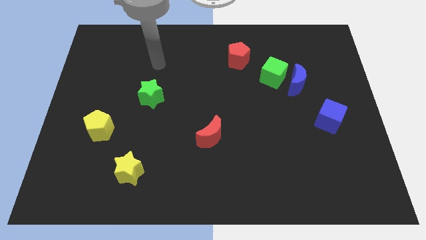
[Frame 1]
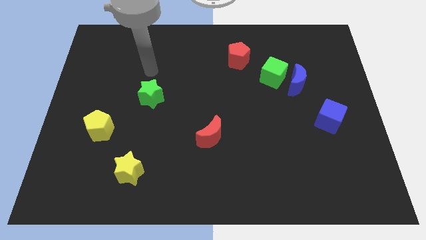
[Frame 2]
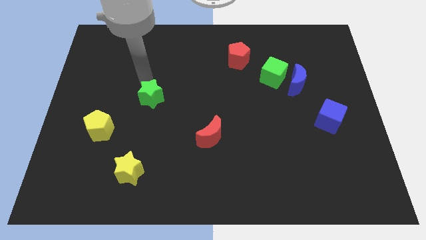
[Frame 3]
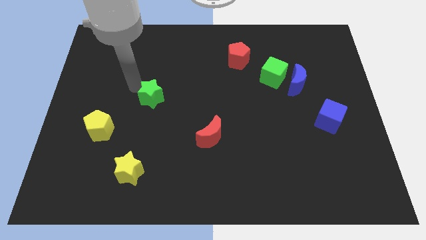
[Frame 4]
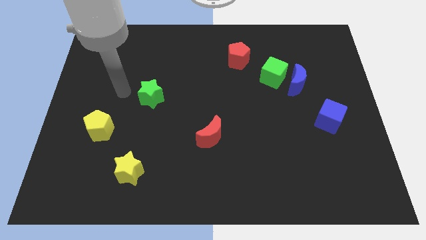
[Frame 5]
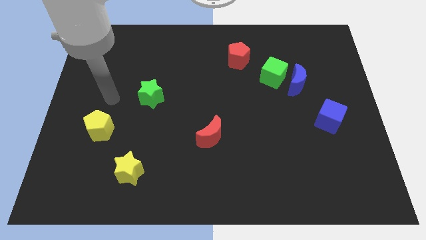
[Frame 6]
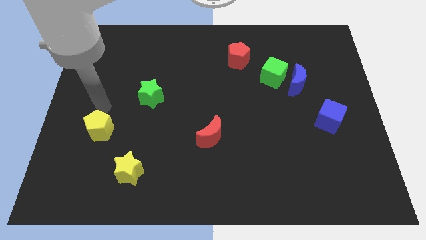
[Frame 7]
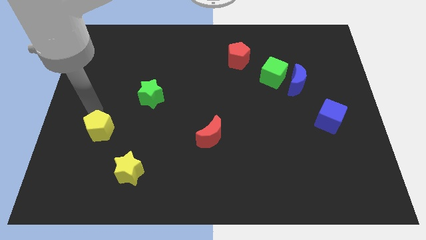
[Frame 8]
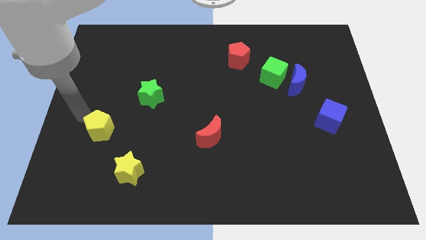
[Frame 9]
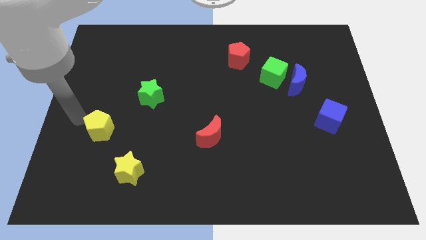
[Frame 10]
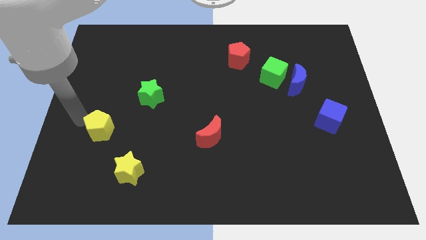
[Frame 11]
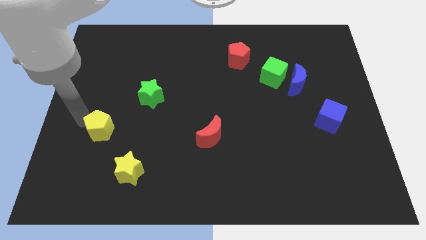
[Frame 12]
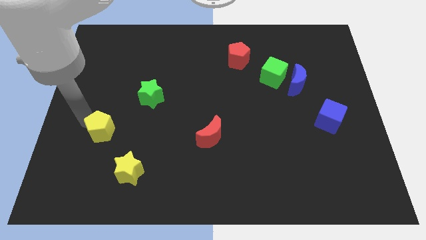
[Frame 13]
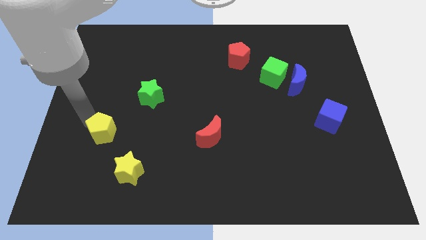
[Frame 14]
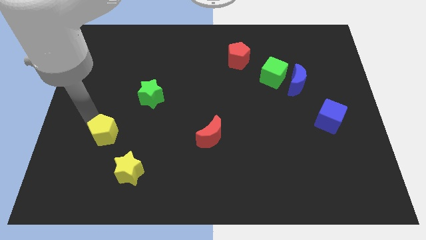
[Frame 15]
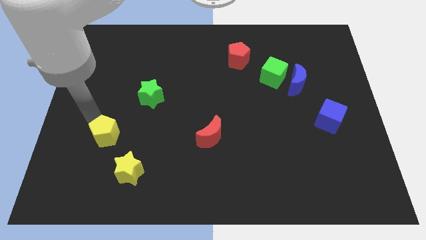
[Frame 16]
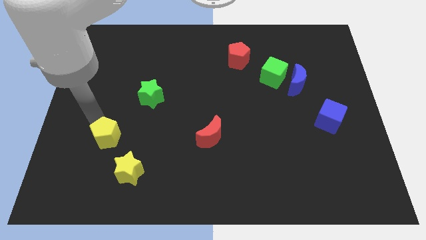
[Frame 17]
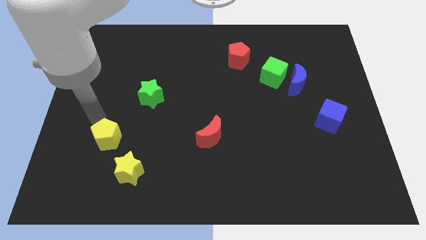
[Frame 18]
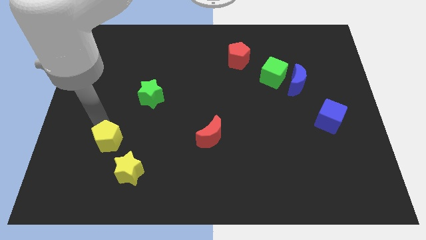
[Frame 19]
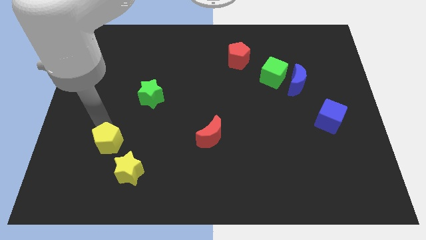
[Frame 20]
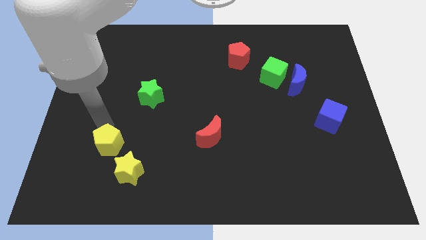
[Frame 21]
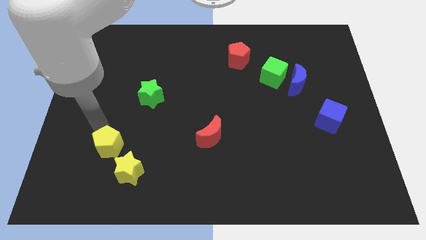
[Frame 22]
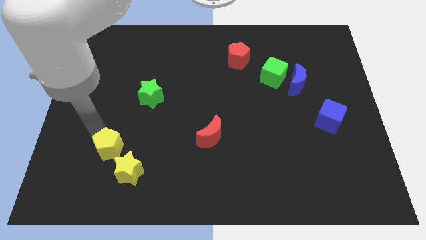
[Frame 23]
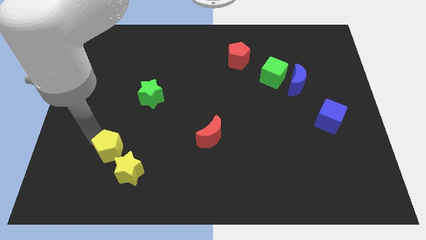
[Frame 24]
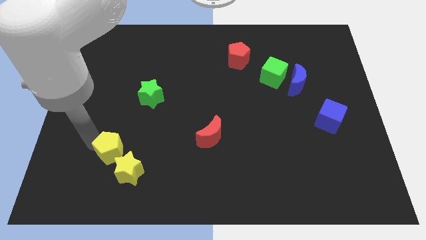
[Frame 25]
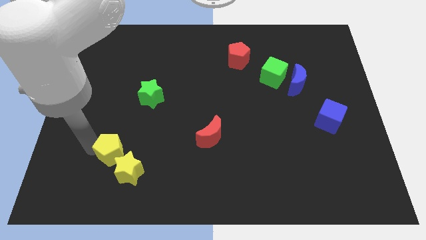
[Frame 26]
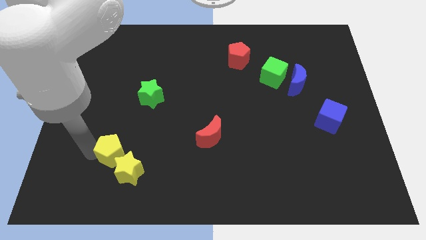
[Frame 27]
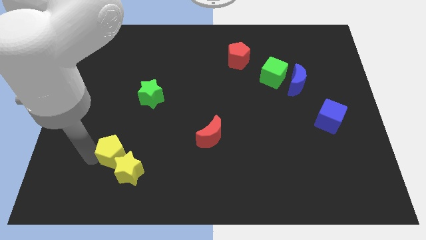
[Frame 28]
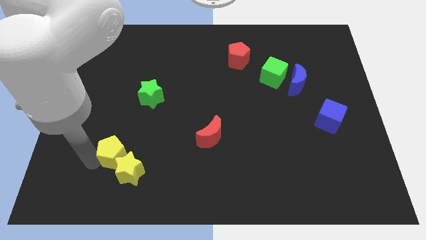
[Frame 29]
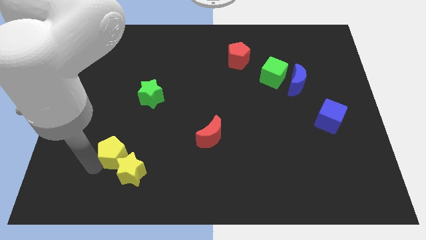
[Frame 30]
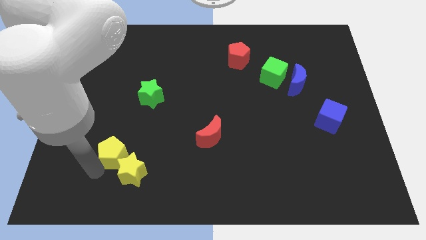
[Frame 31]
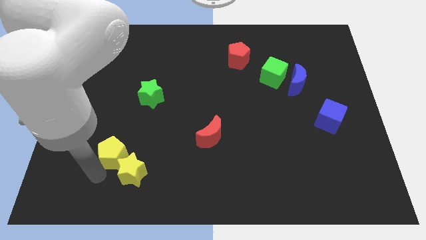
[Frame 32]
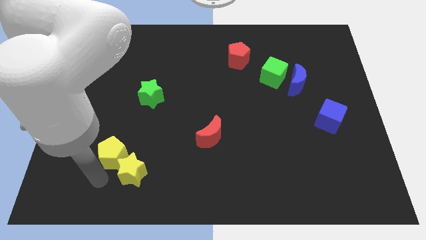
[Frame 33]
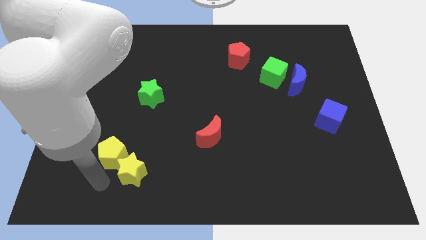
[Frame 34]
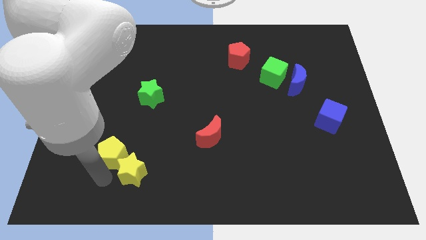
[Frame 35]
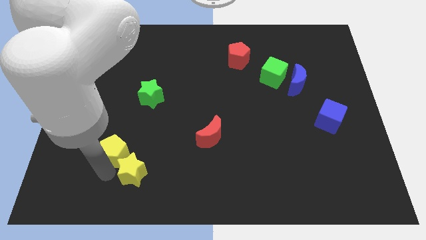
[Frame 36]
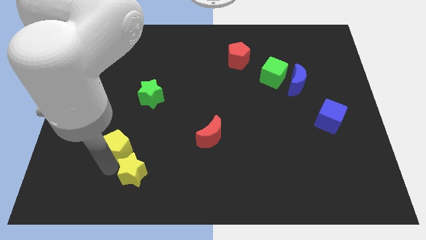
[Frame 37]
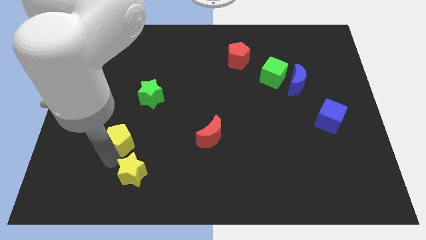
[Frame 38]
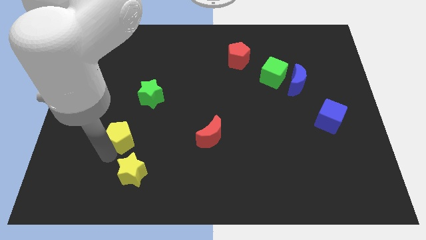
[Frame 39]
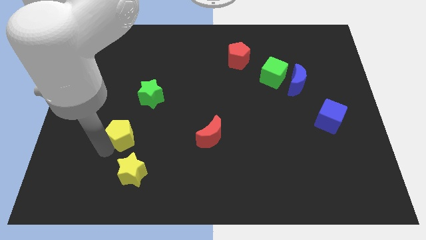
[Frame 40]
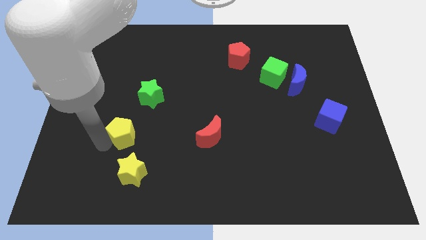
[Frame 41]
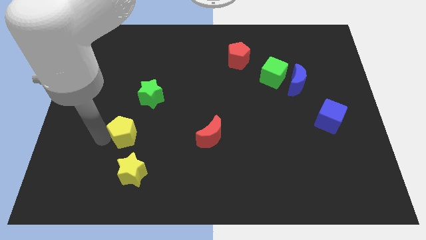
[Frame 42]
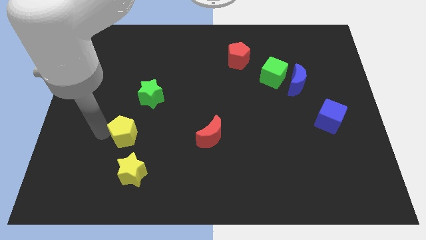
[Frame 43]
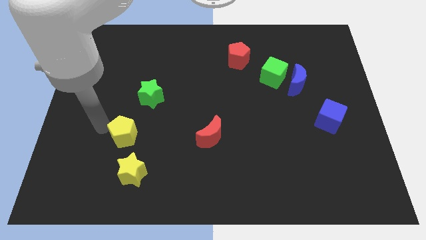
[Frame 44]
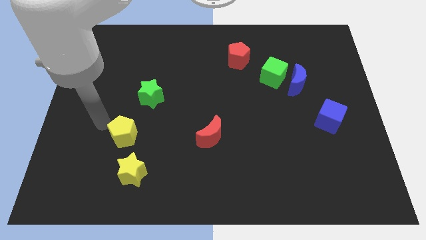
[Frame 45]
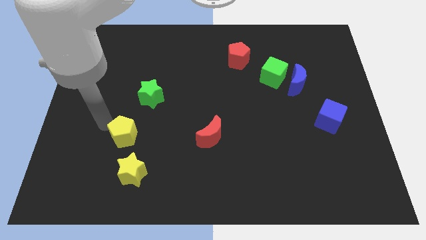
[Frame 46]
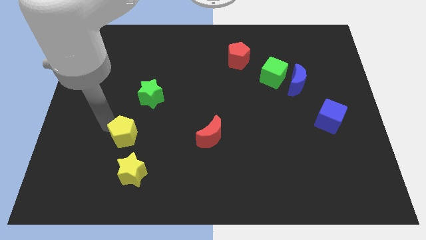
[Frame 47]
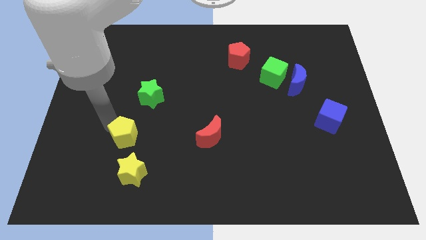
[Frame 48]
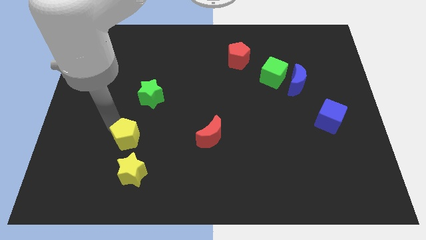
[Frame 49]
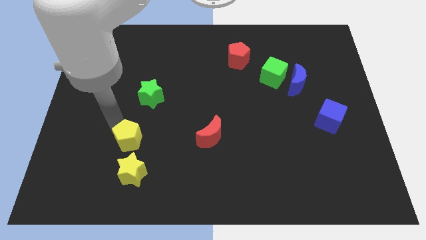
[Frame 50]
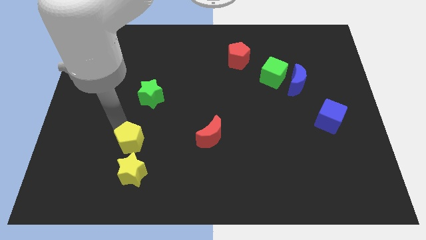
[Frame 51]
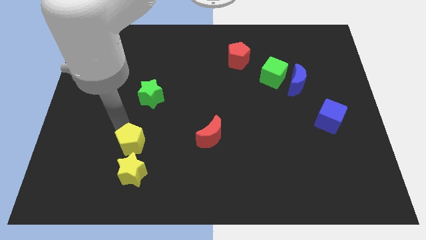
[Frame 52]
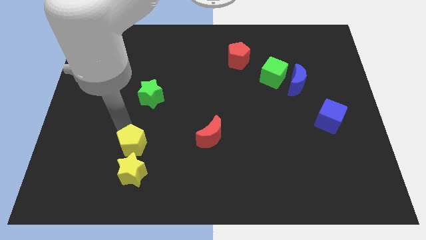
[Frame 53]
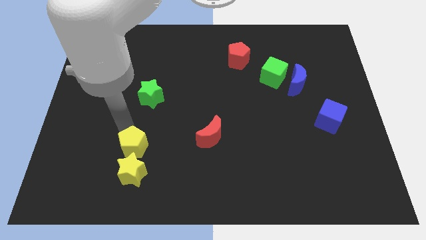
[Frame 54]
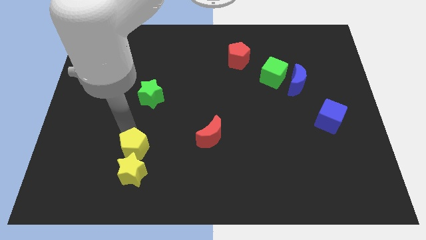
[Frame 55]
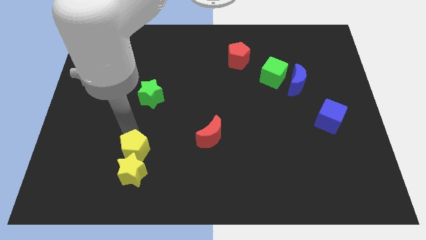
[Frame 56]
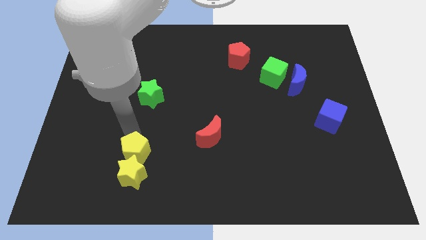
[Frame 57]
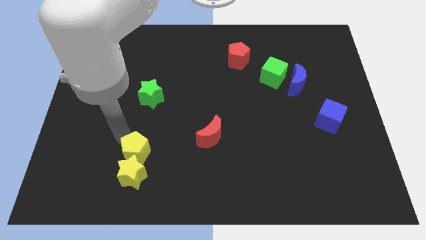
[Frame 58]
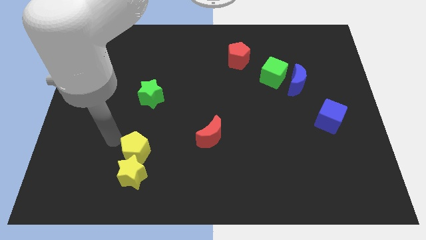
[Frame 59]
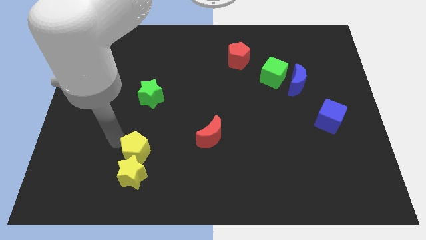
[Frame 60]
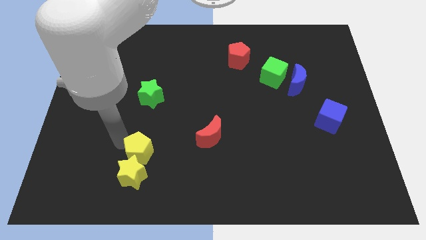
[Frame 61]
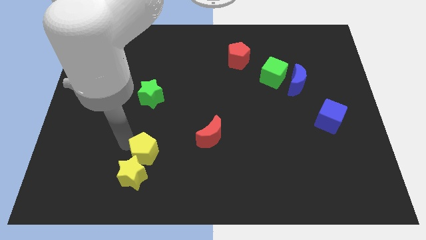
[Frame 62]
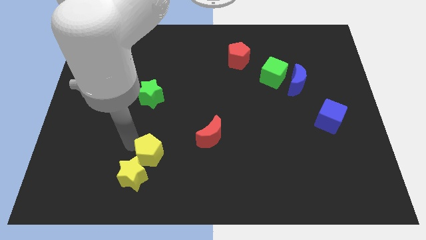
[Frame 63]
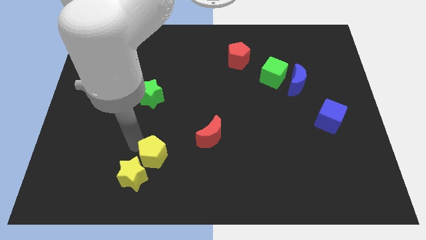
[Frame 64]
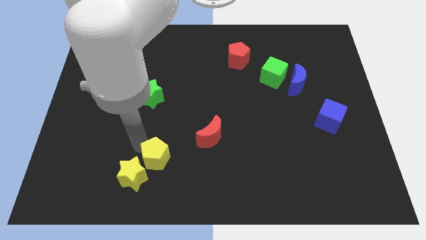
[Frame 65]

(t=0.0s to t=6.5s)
move the yellow pentagon right of the yellow star
